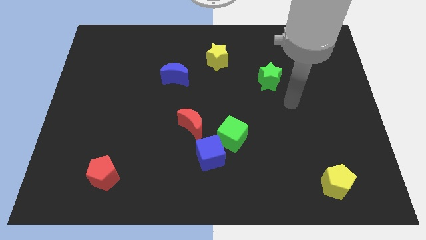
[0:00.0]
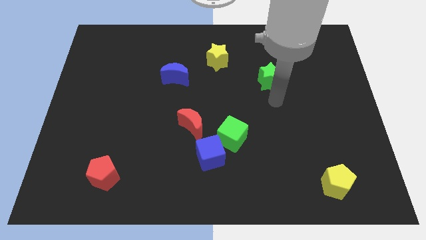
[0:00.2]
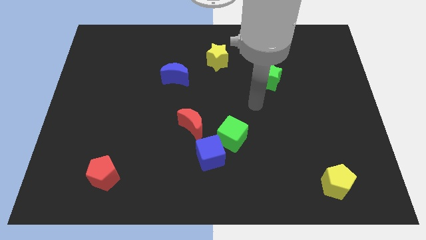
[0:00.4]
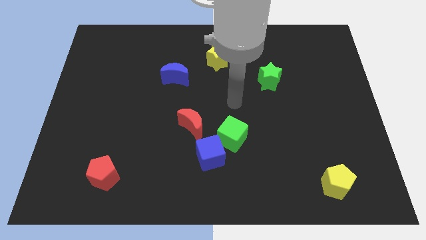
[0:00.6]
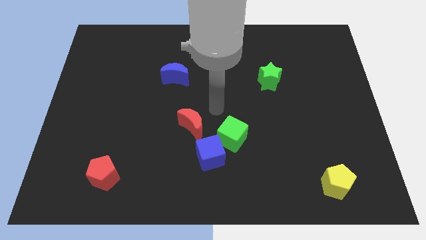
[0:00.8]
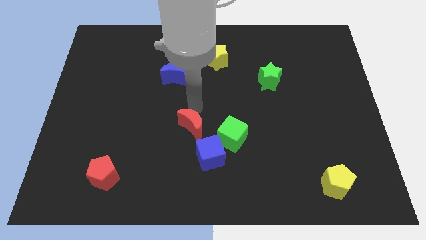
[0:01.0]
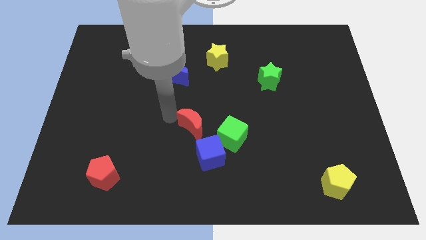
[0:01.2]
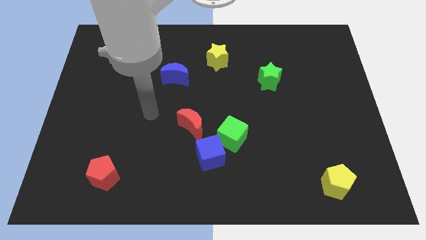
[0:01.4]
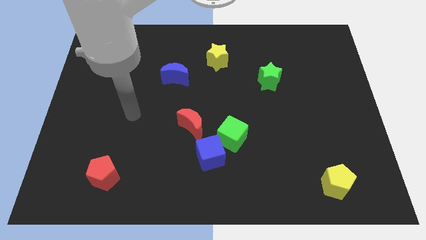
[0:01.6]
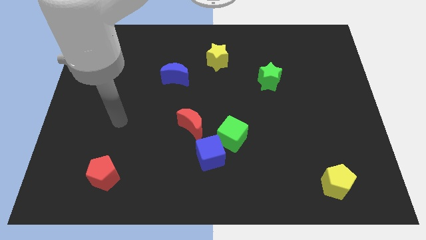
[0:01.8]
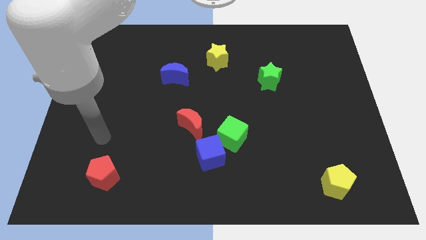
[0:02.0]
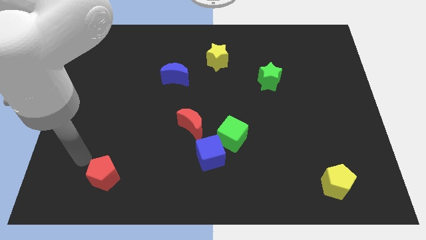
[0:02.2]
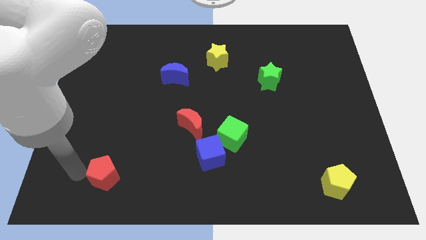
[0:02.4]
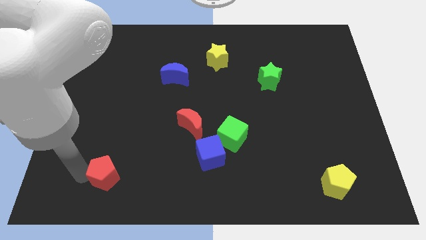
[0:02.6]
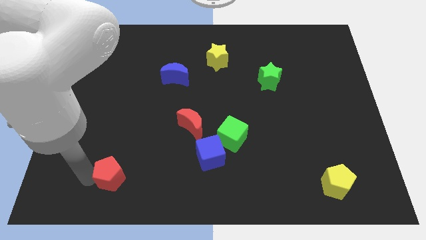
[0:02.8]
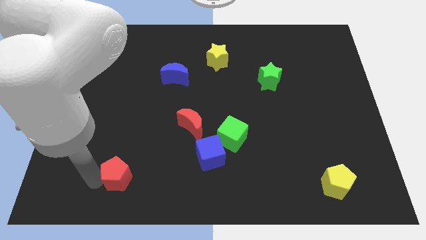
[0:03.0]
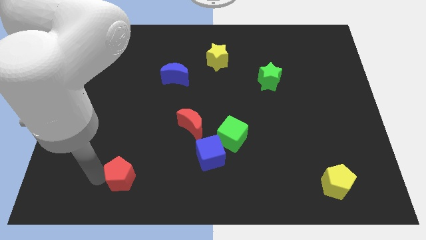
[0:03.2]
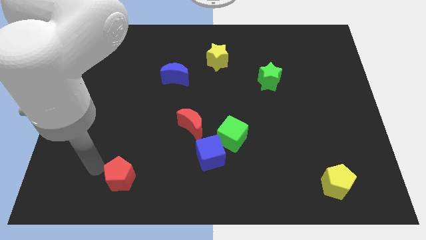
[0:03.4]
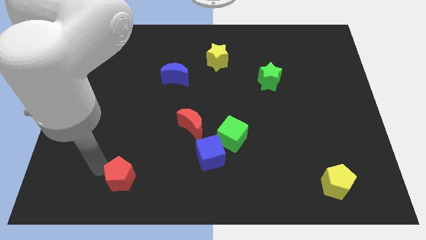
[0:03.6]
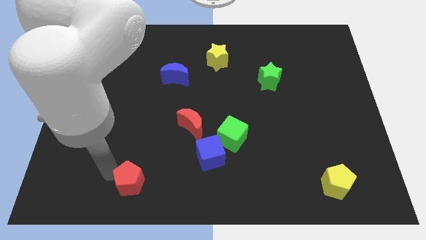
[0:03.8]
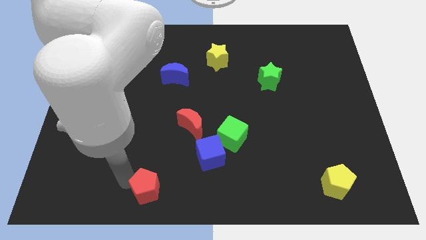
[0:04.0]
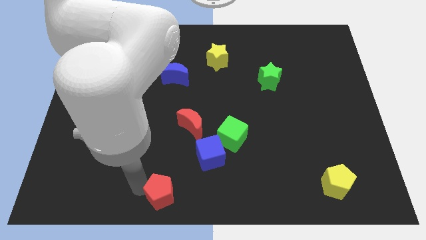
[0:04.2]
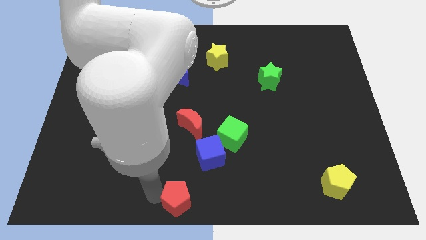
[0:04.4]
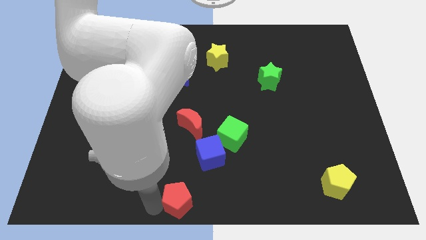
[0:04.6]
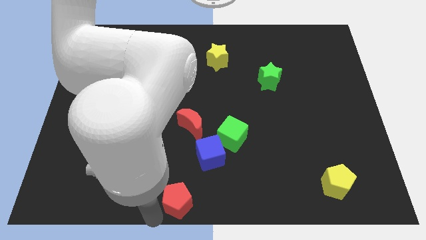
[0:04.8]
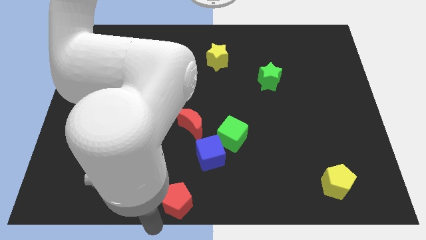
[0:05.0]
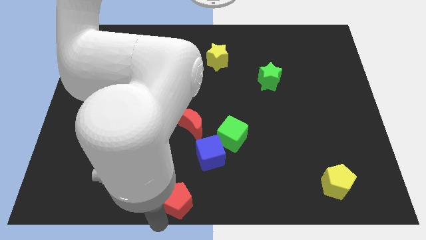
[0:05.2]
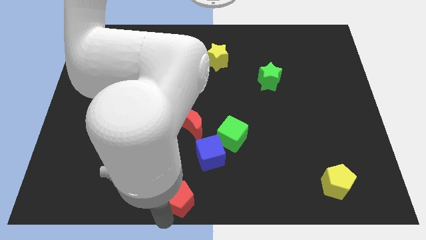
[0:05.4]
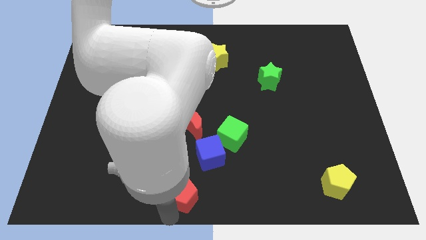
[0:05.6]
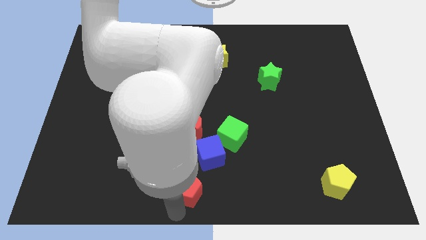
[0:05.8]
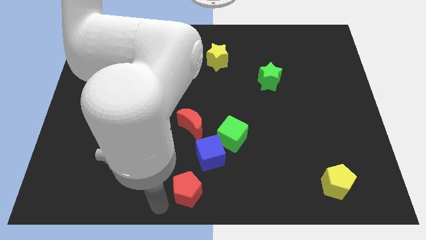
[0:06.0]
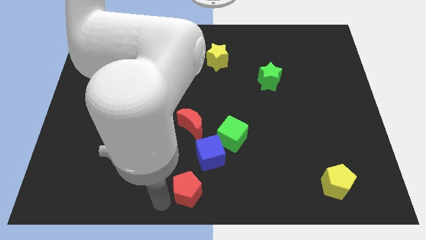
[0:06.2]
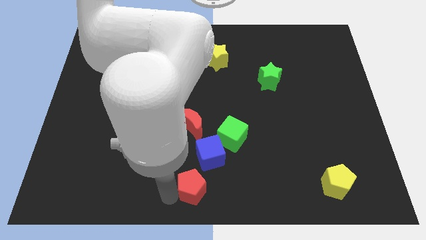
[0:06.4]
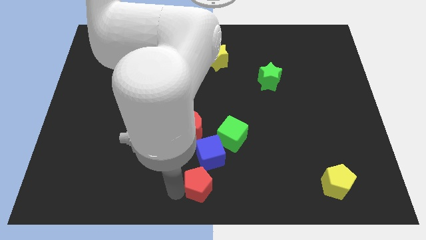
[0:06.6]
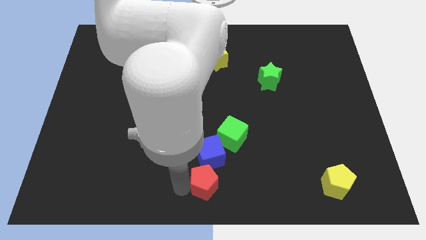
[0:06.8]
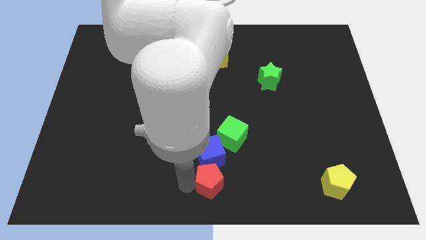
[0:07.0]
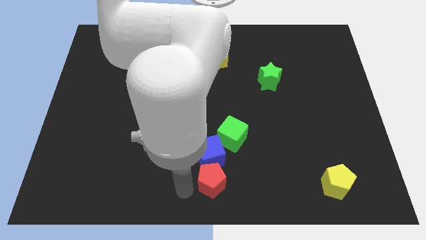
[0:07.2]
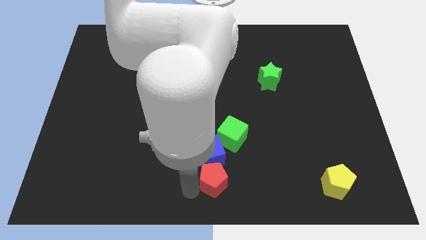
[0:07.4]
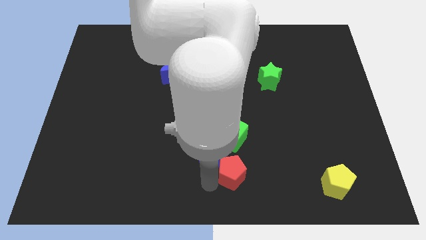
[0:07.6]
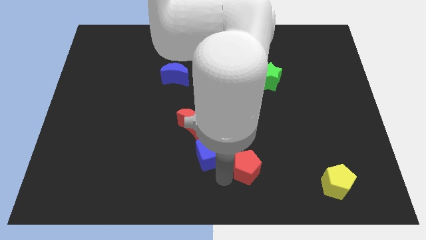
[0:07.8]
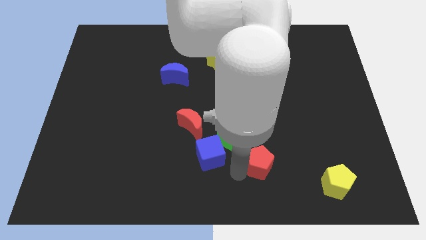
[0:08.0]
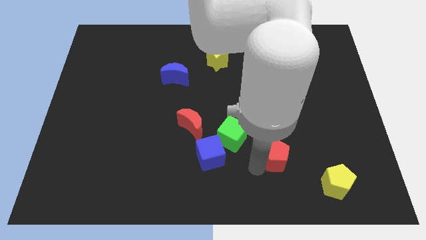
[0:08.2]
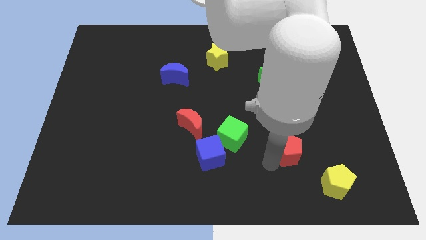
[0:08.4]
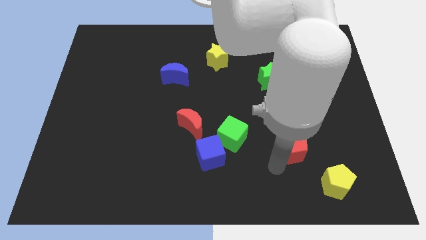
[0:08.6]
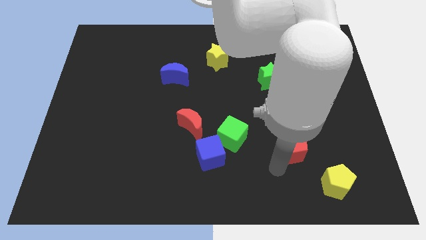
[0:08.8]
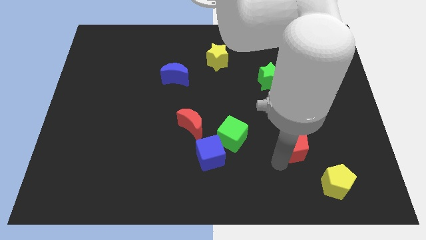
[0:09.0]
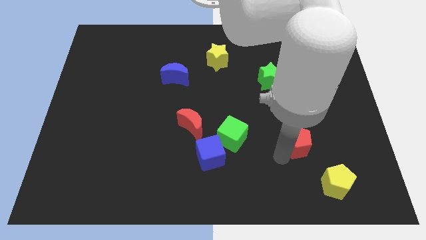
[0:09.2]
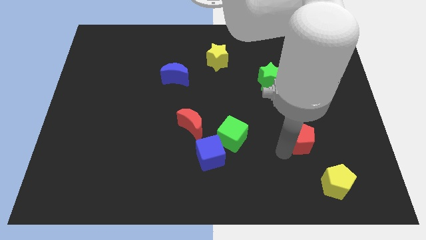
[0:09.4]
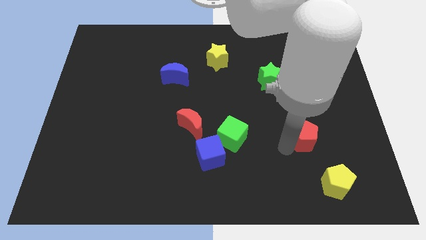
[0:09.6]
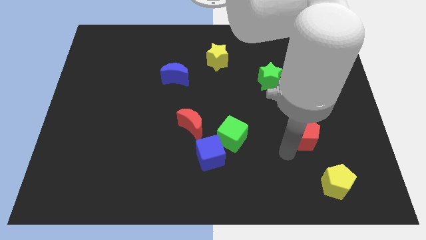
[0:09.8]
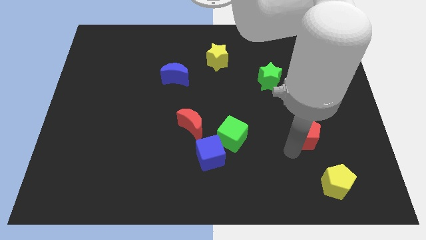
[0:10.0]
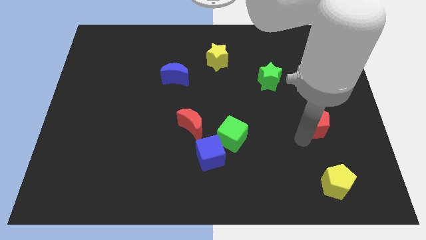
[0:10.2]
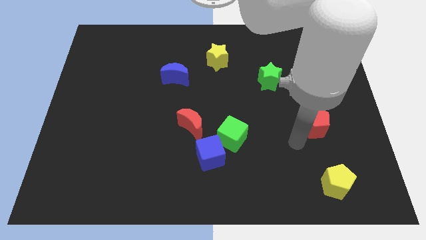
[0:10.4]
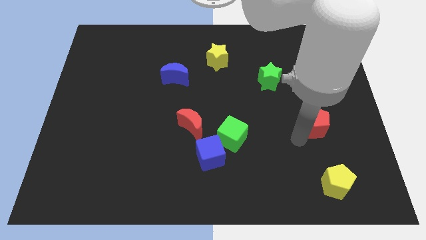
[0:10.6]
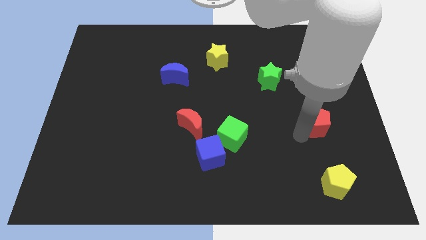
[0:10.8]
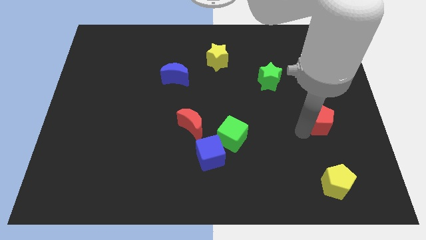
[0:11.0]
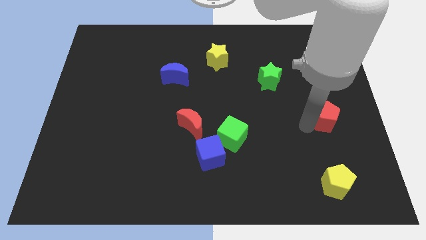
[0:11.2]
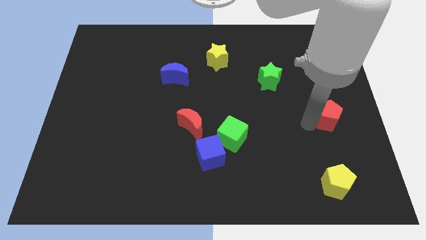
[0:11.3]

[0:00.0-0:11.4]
push the red pentagon to the right side

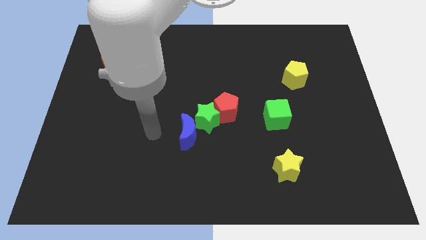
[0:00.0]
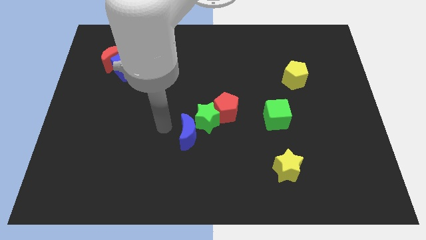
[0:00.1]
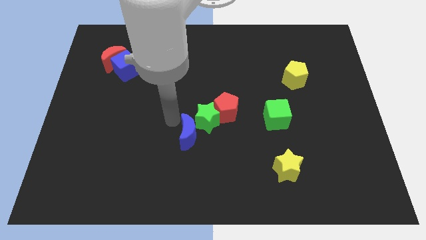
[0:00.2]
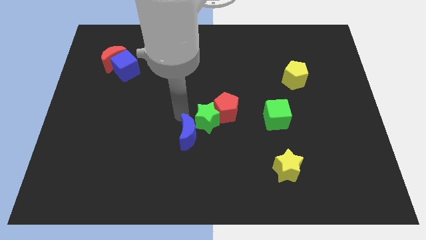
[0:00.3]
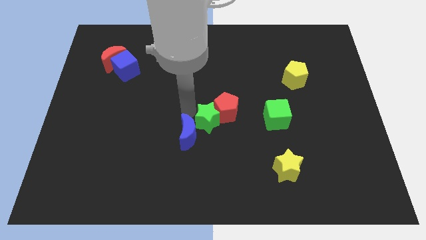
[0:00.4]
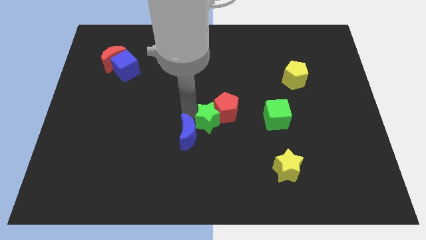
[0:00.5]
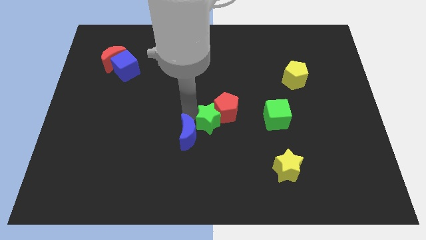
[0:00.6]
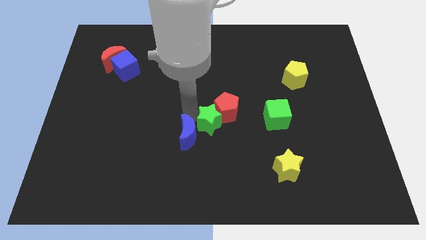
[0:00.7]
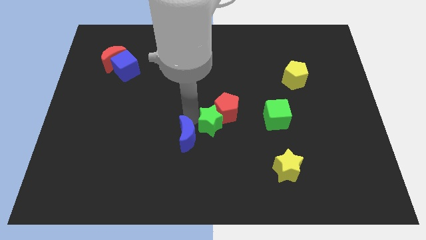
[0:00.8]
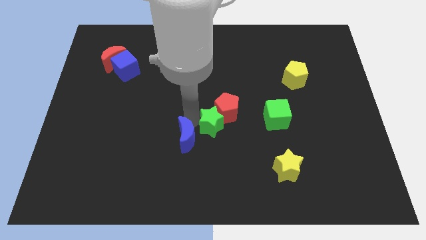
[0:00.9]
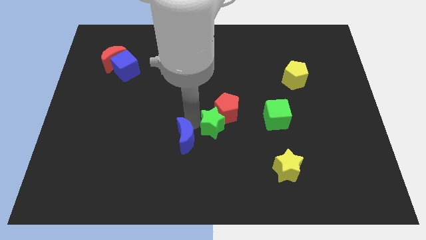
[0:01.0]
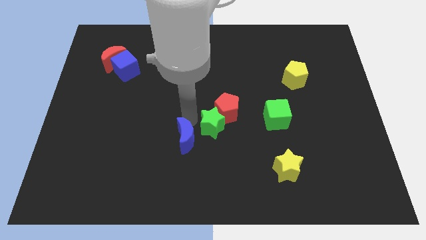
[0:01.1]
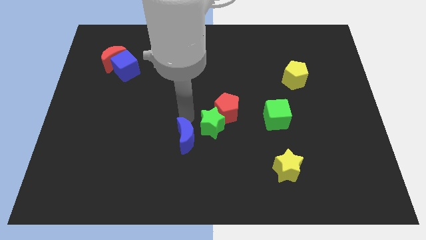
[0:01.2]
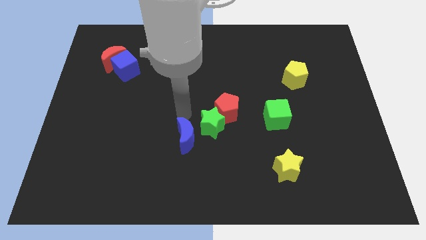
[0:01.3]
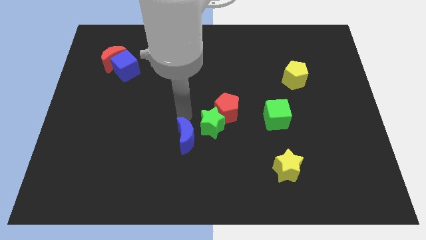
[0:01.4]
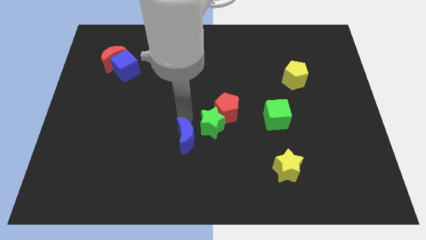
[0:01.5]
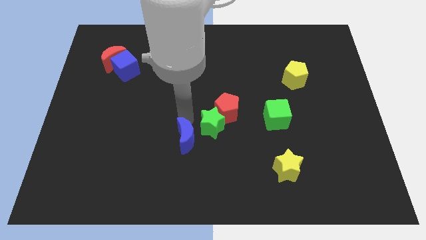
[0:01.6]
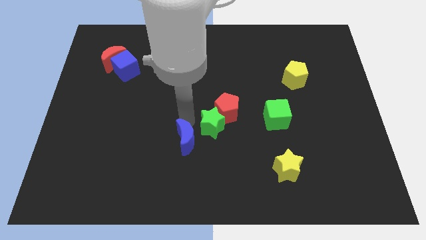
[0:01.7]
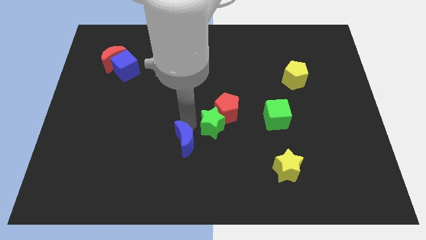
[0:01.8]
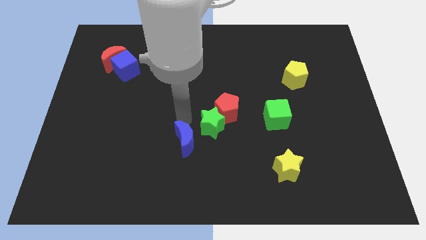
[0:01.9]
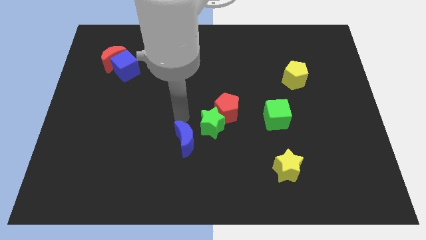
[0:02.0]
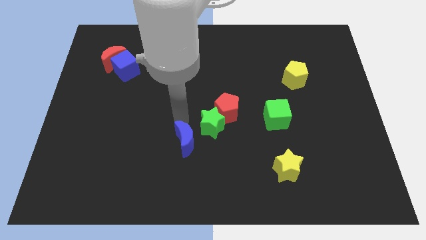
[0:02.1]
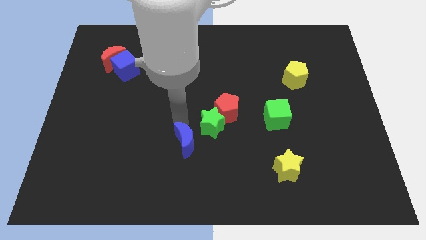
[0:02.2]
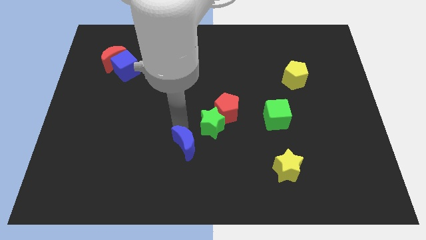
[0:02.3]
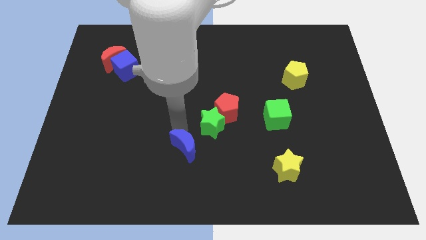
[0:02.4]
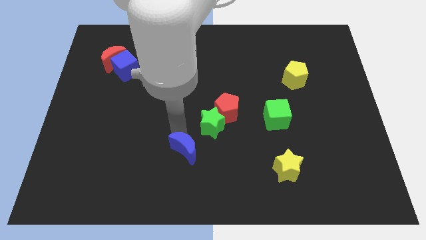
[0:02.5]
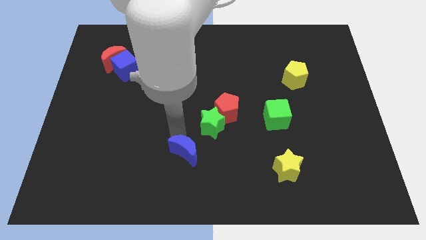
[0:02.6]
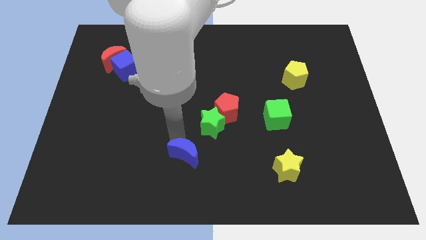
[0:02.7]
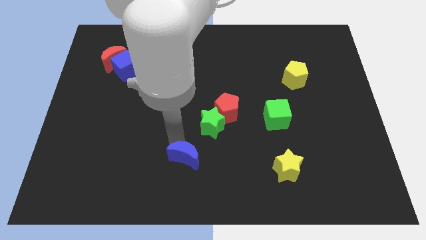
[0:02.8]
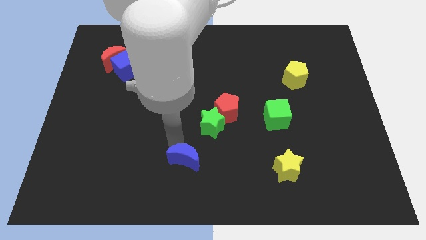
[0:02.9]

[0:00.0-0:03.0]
put the blue moon to the bottom
